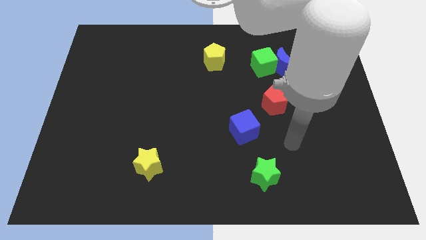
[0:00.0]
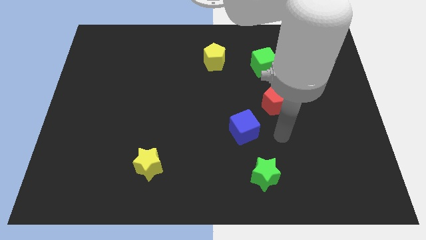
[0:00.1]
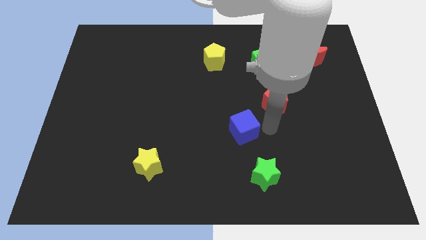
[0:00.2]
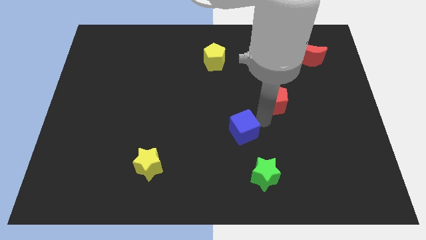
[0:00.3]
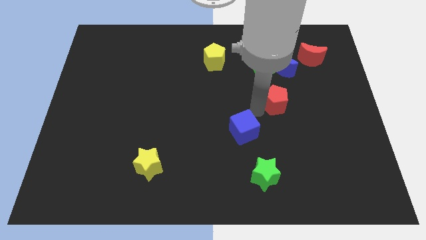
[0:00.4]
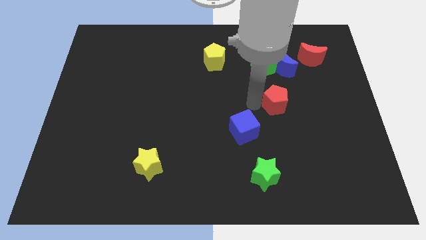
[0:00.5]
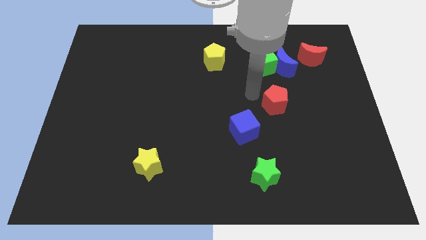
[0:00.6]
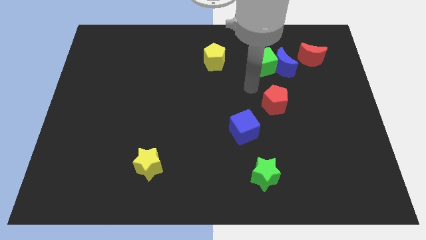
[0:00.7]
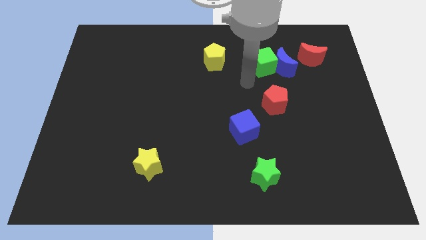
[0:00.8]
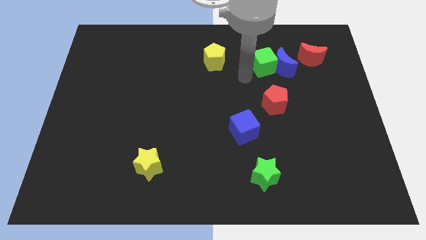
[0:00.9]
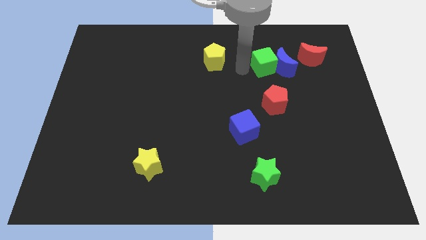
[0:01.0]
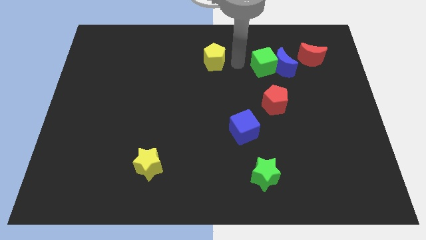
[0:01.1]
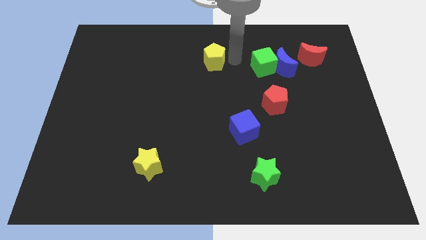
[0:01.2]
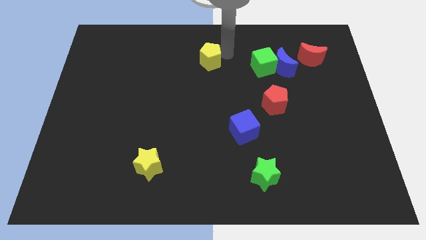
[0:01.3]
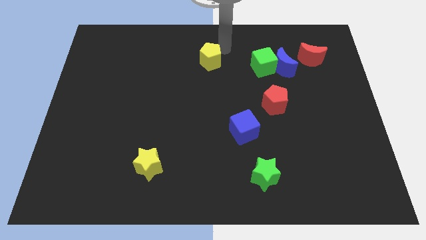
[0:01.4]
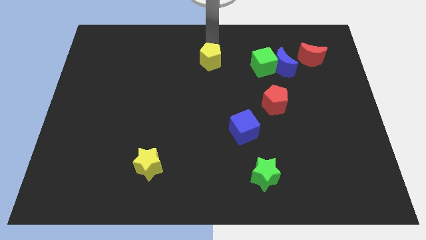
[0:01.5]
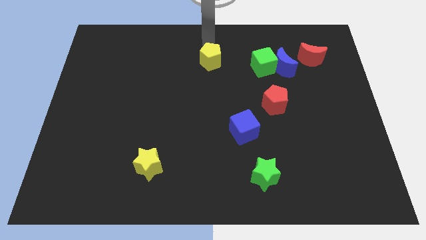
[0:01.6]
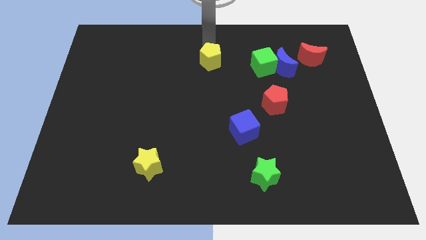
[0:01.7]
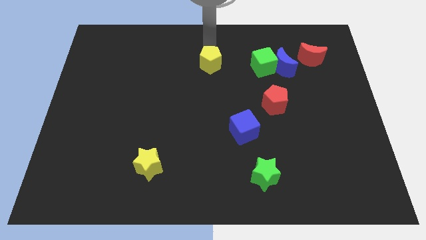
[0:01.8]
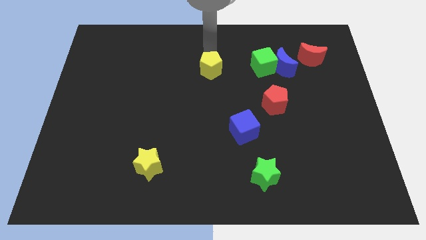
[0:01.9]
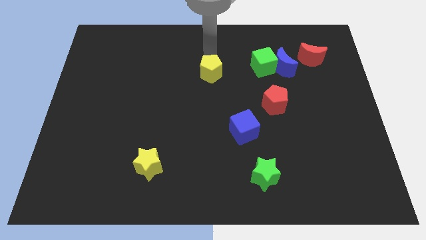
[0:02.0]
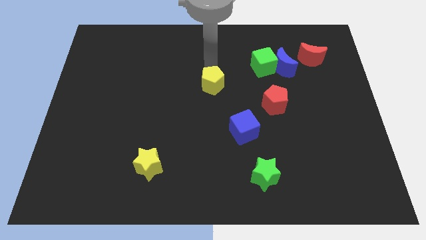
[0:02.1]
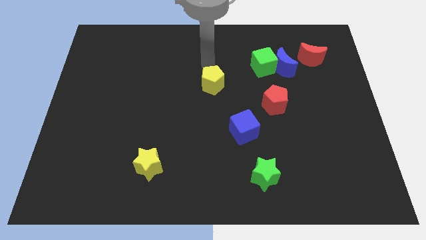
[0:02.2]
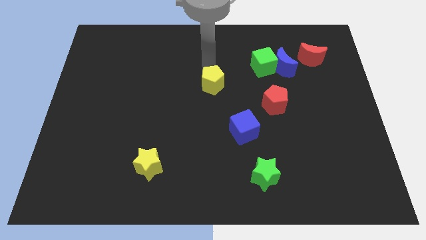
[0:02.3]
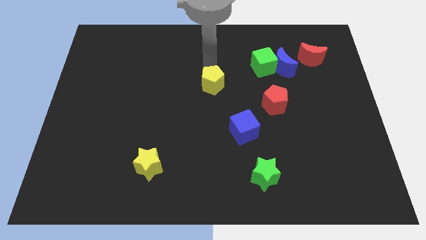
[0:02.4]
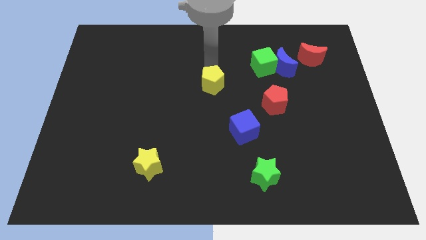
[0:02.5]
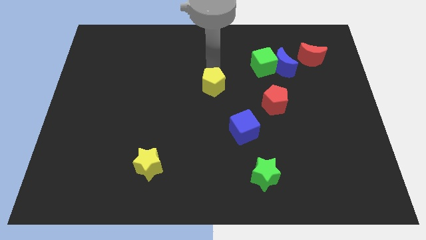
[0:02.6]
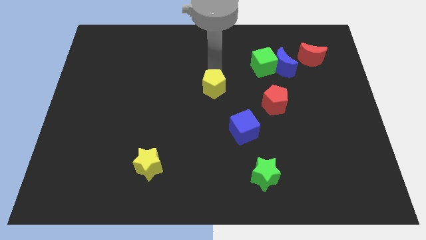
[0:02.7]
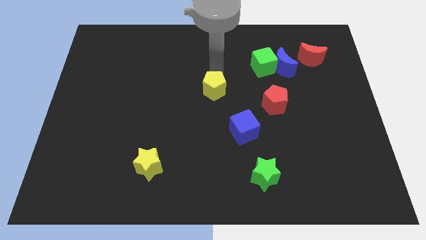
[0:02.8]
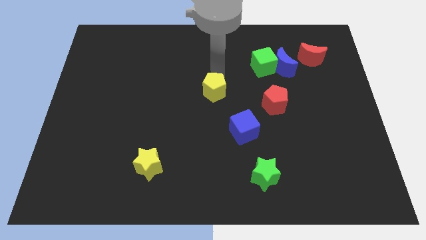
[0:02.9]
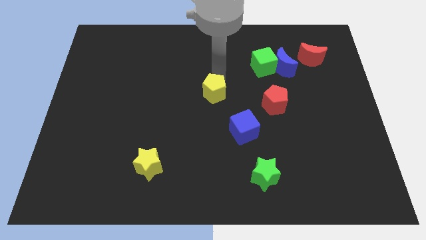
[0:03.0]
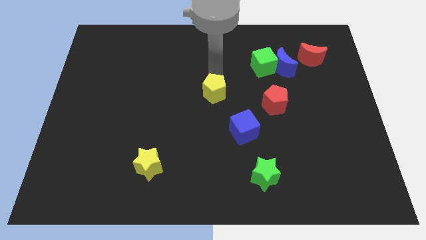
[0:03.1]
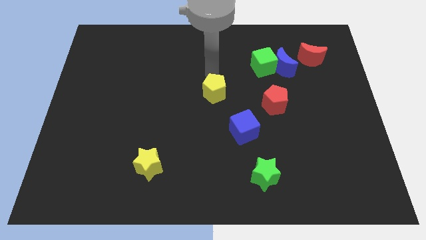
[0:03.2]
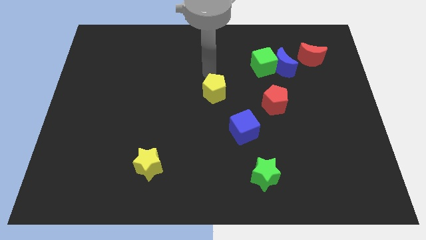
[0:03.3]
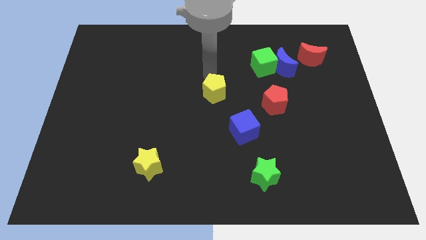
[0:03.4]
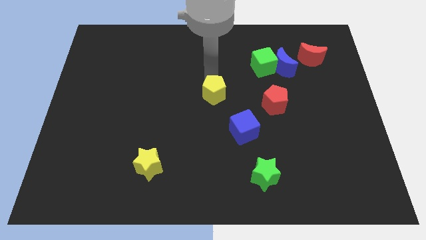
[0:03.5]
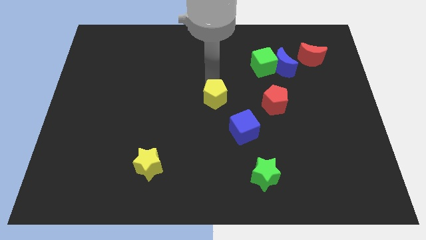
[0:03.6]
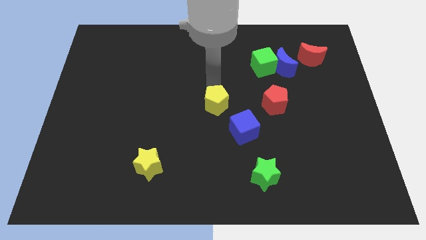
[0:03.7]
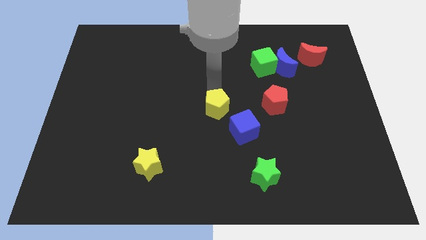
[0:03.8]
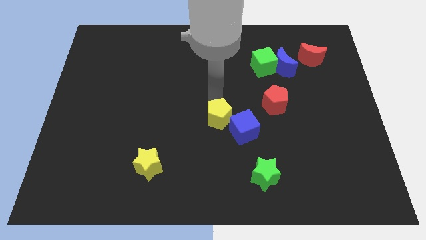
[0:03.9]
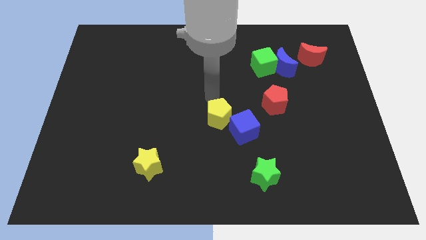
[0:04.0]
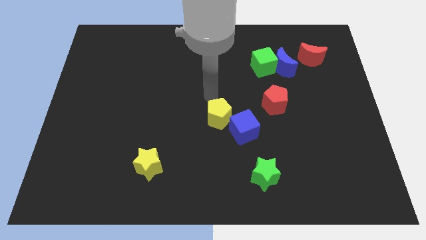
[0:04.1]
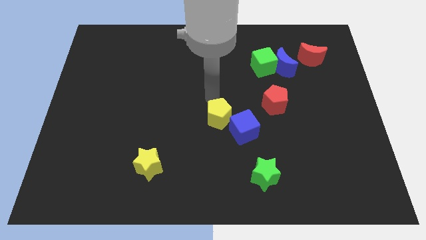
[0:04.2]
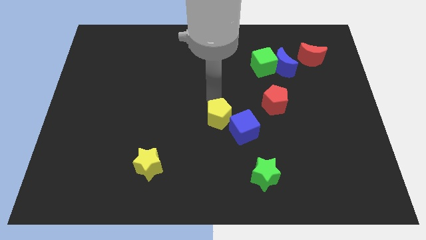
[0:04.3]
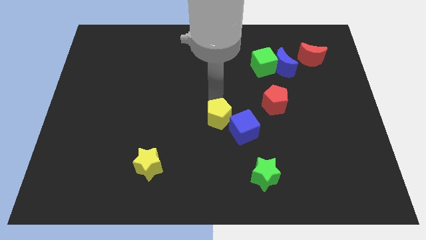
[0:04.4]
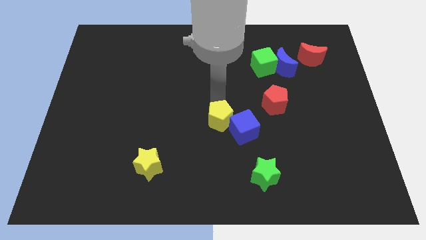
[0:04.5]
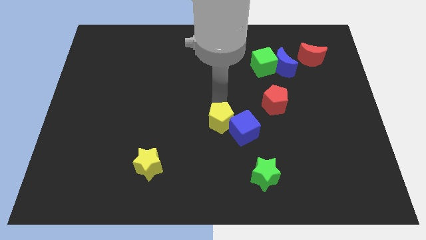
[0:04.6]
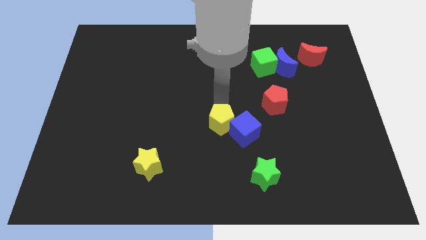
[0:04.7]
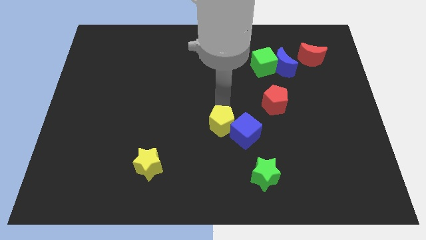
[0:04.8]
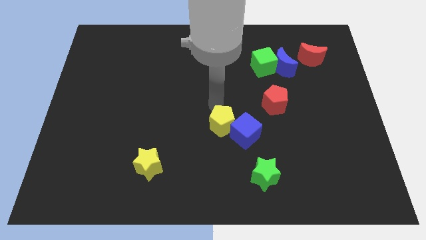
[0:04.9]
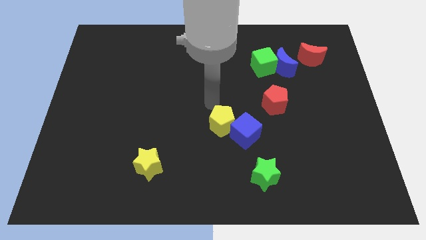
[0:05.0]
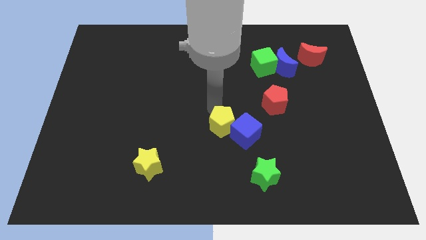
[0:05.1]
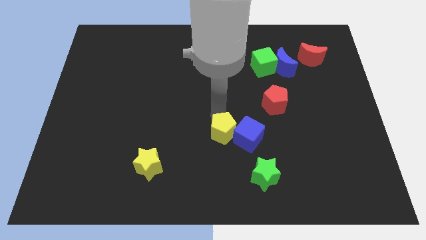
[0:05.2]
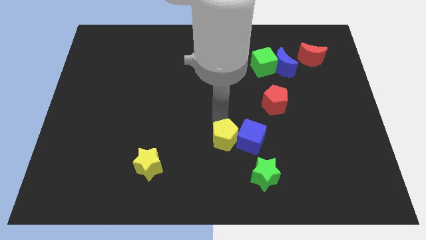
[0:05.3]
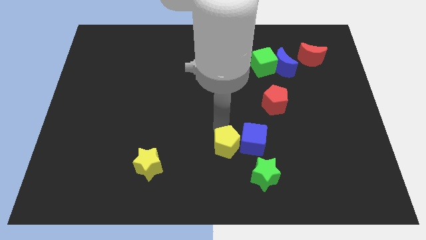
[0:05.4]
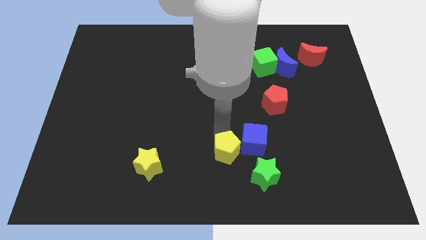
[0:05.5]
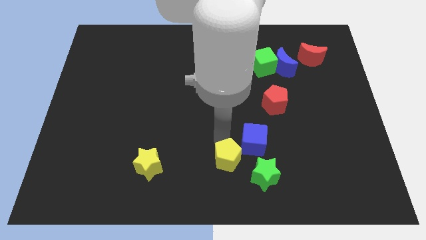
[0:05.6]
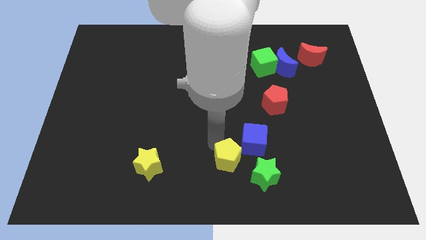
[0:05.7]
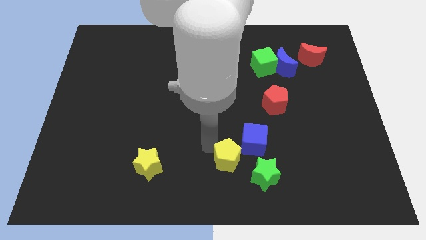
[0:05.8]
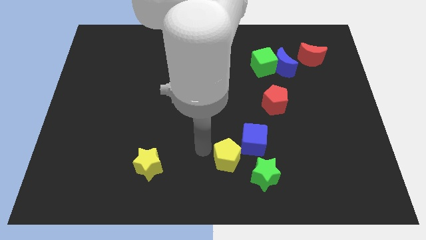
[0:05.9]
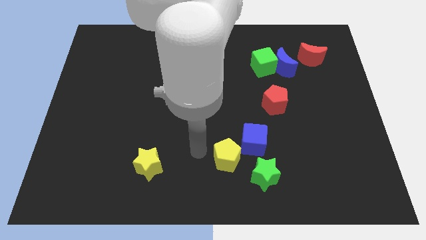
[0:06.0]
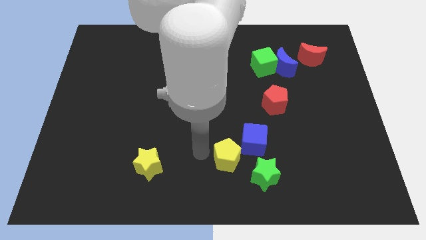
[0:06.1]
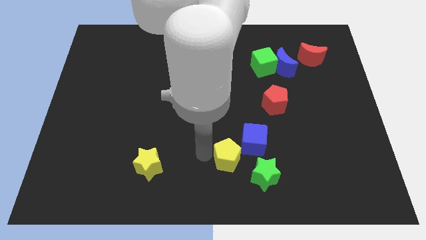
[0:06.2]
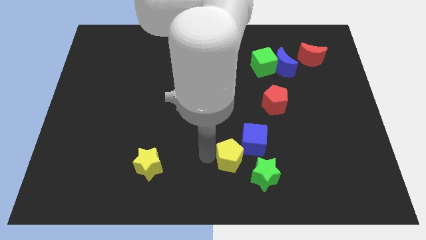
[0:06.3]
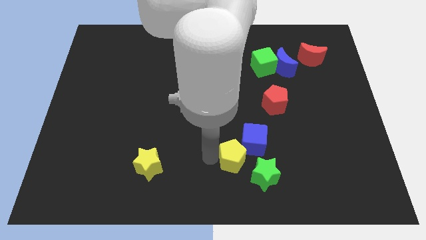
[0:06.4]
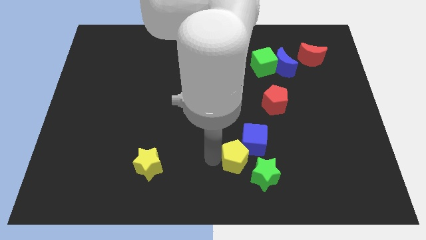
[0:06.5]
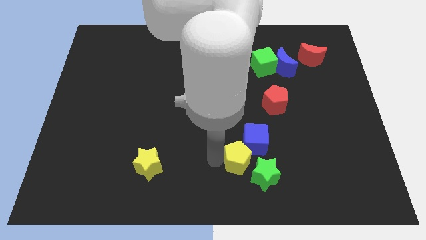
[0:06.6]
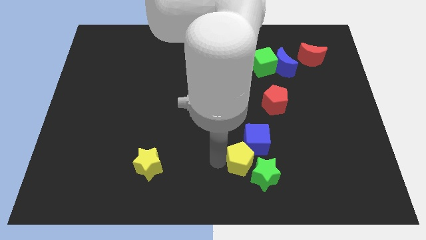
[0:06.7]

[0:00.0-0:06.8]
move the yellow pentagon next to the green star

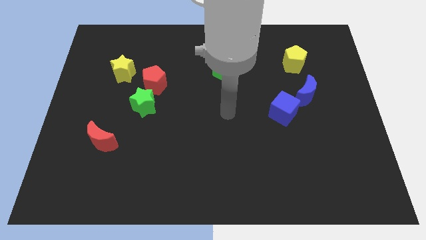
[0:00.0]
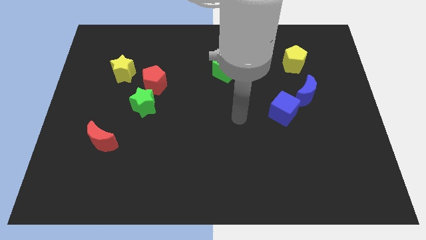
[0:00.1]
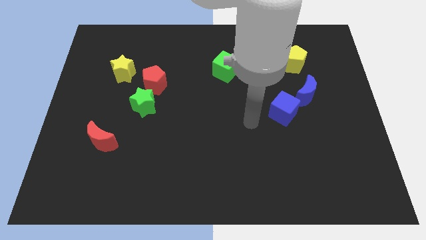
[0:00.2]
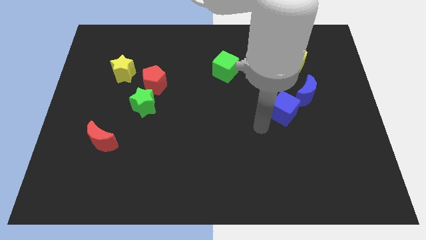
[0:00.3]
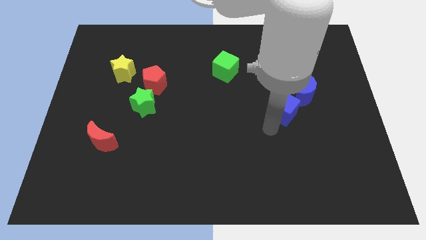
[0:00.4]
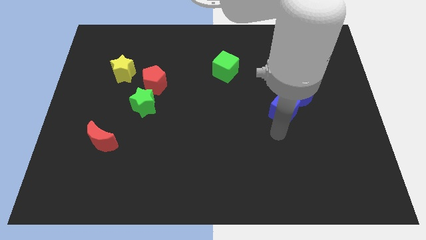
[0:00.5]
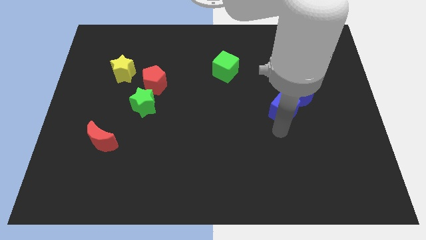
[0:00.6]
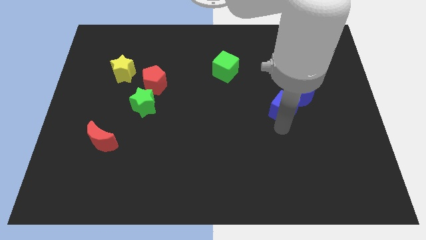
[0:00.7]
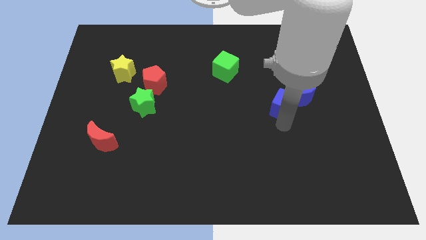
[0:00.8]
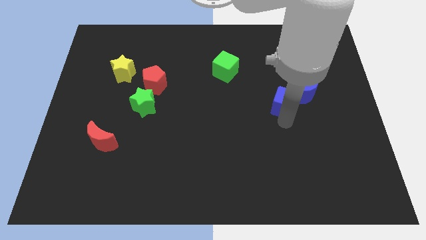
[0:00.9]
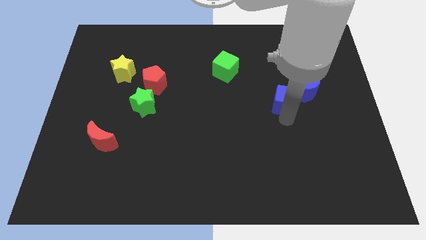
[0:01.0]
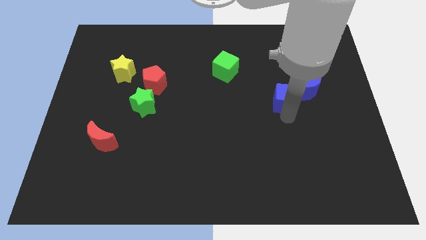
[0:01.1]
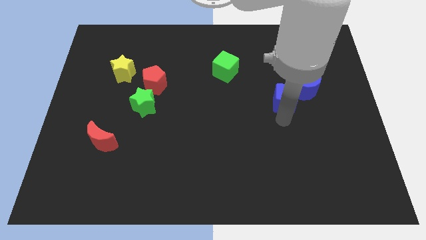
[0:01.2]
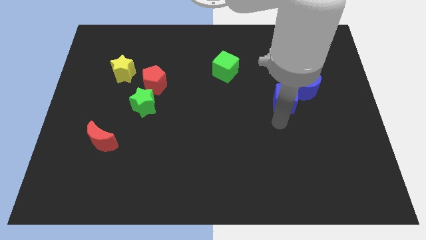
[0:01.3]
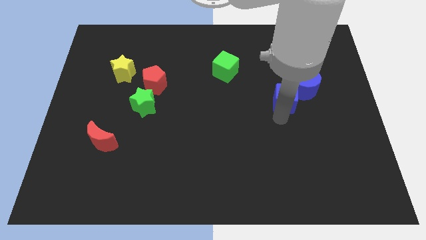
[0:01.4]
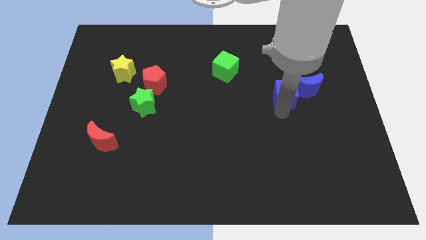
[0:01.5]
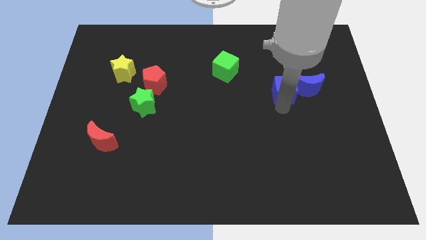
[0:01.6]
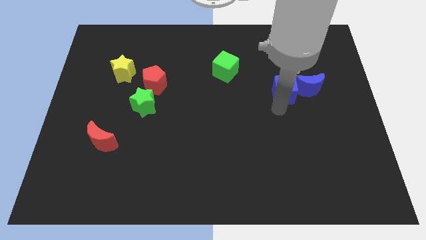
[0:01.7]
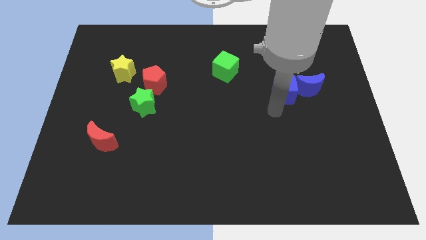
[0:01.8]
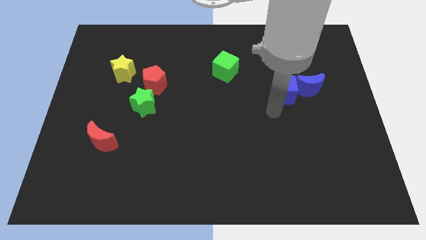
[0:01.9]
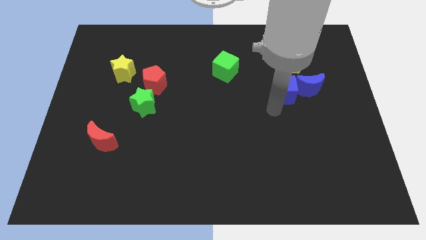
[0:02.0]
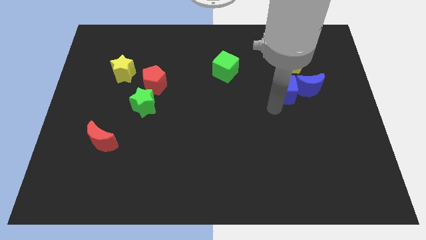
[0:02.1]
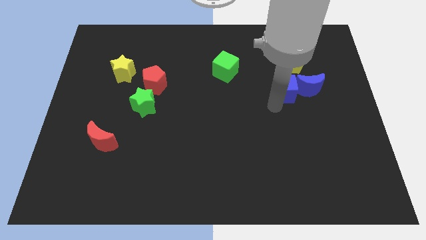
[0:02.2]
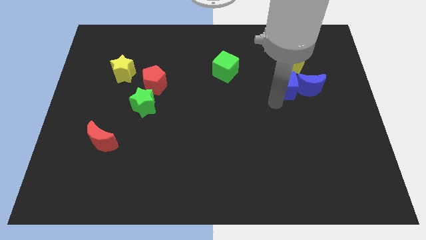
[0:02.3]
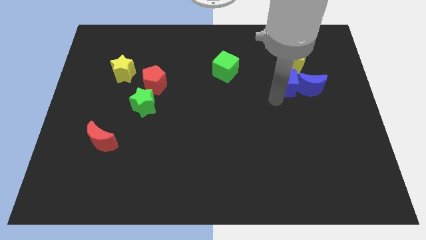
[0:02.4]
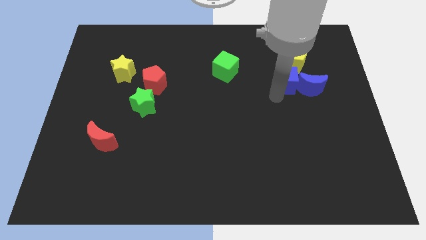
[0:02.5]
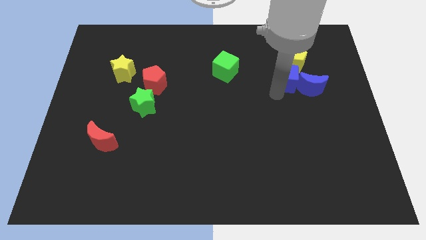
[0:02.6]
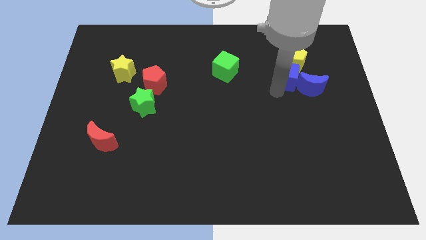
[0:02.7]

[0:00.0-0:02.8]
put the blue cube next to the yellow pentagon
